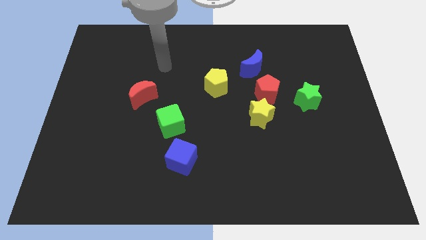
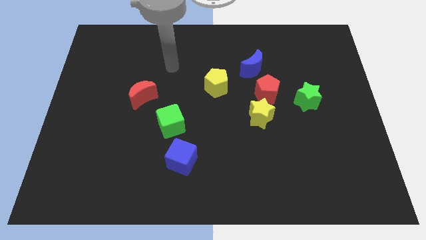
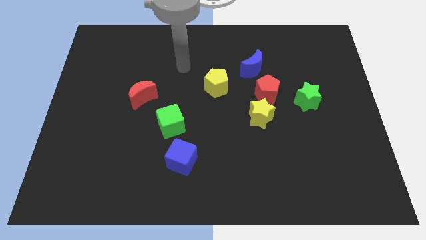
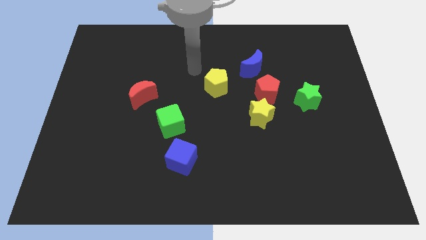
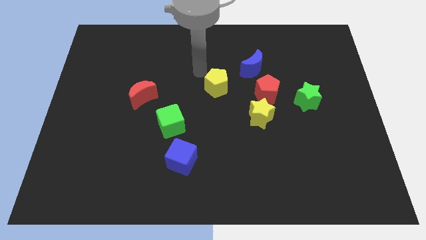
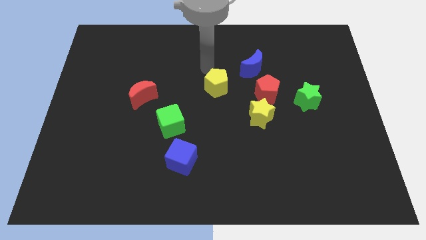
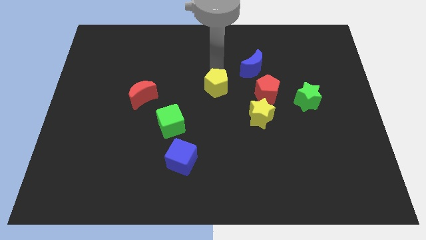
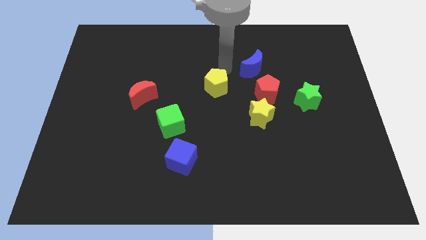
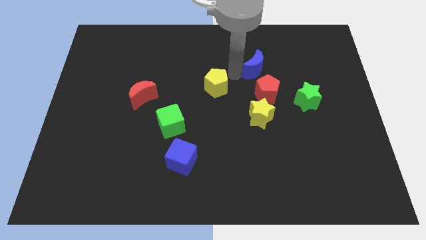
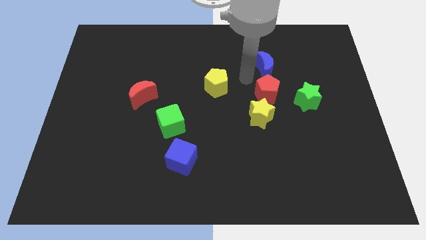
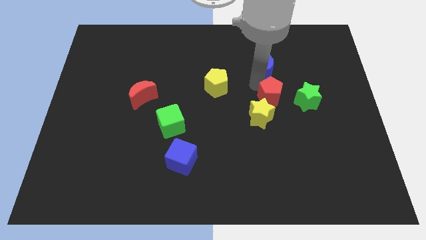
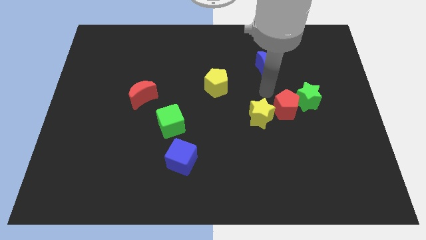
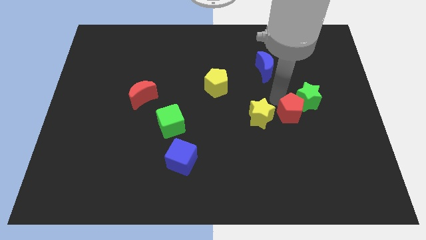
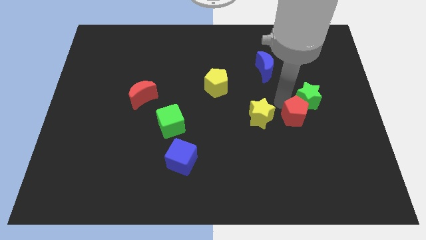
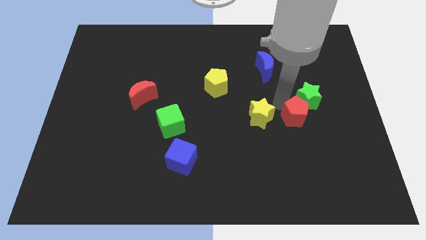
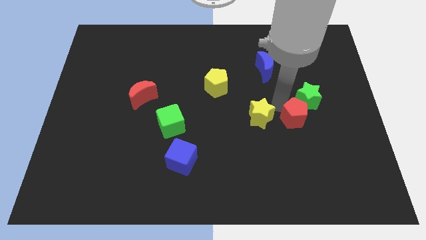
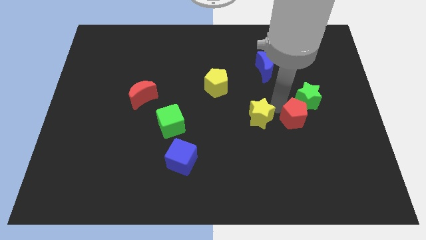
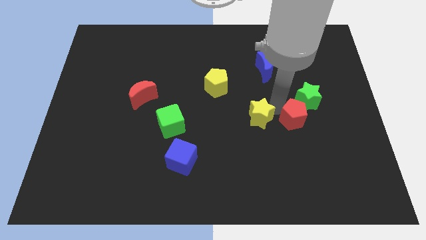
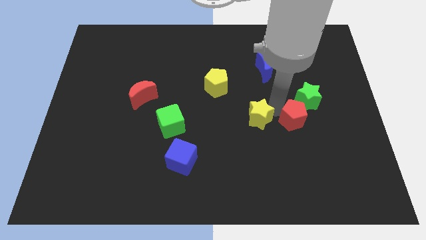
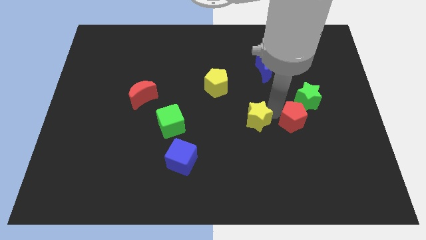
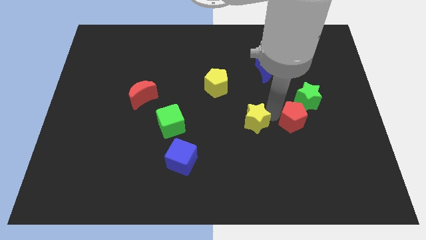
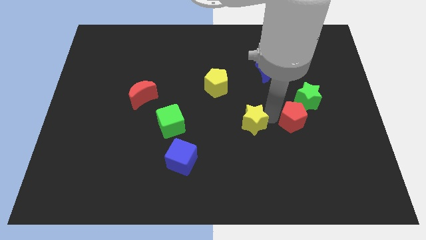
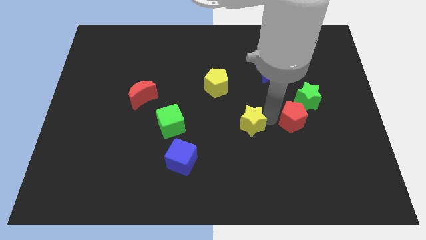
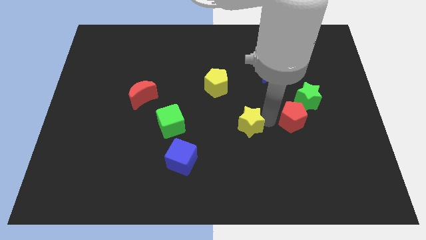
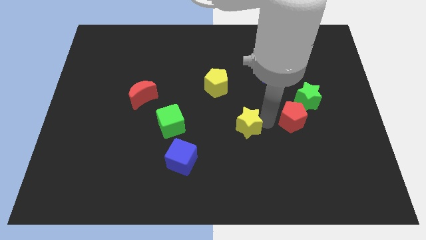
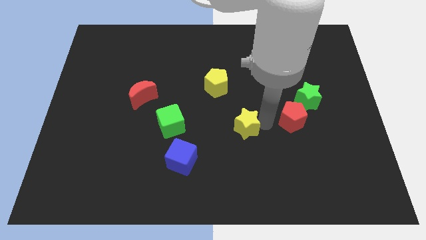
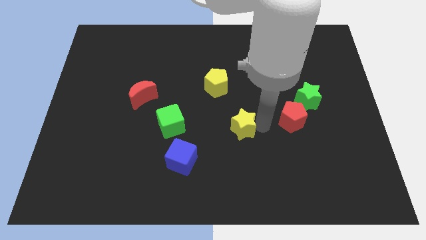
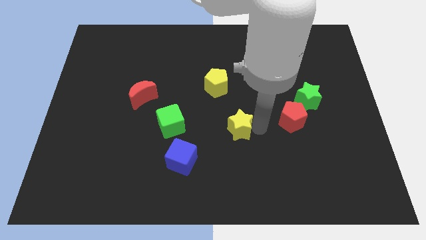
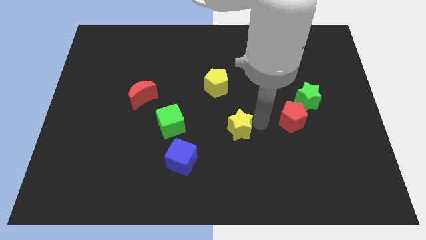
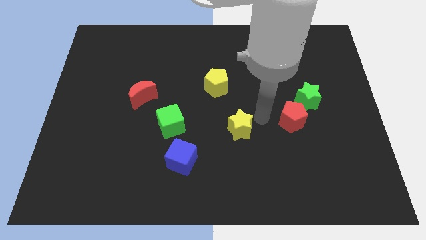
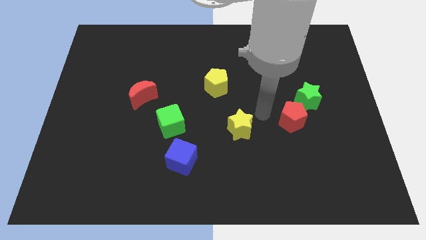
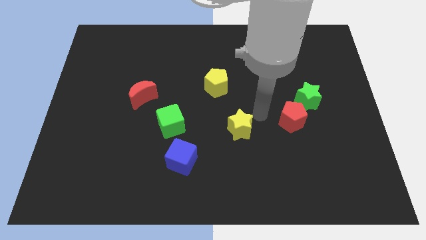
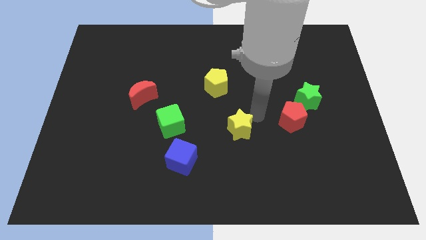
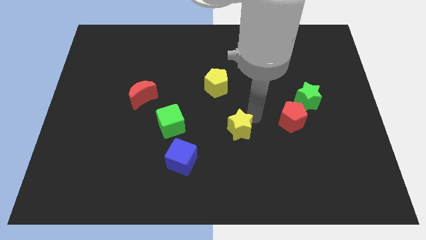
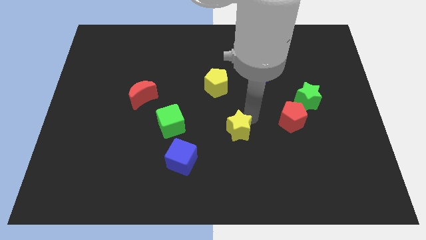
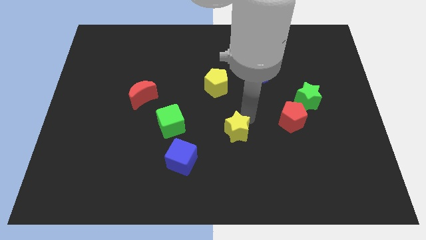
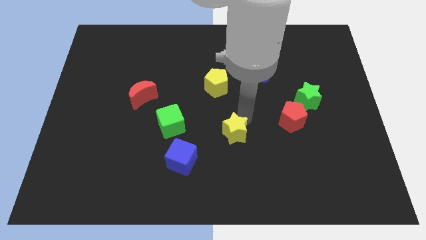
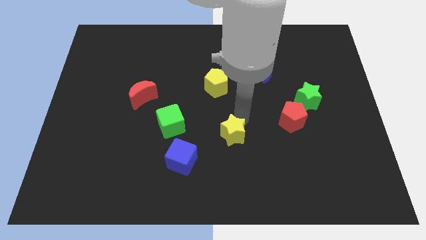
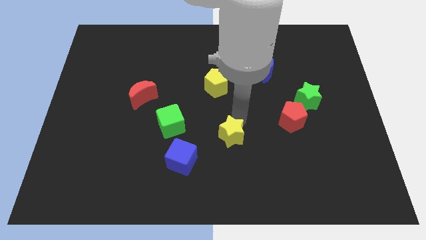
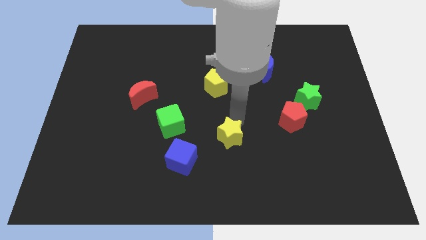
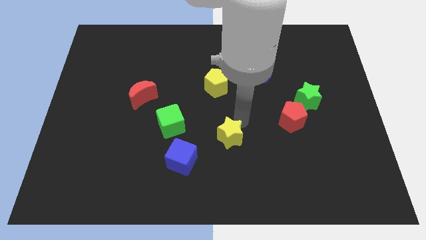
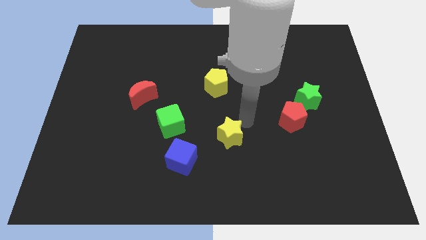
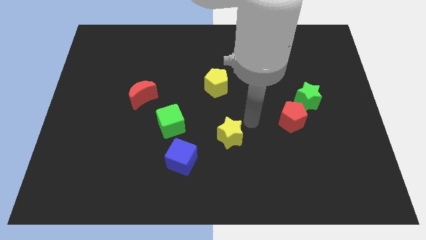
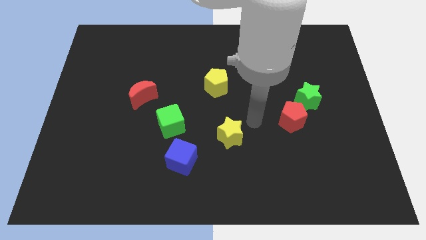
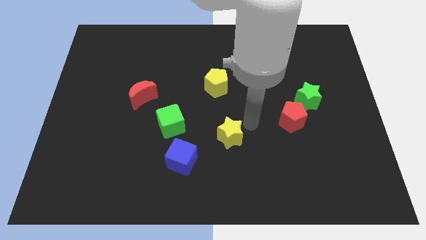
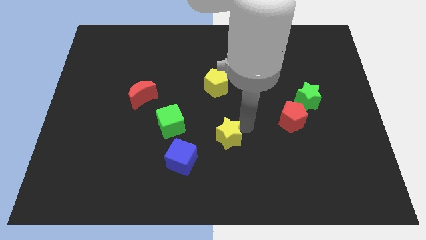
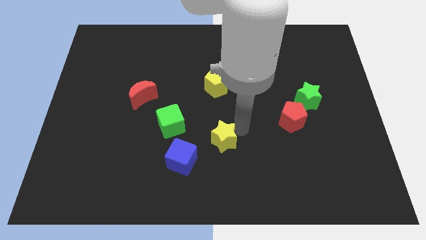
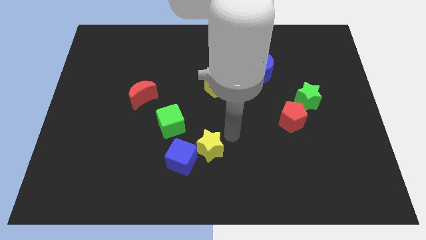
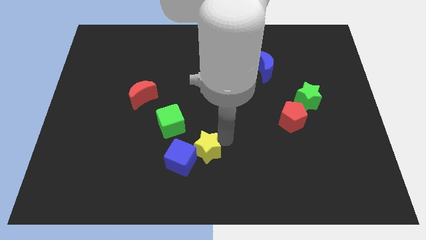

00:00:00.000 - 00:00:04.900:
put the yellow star close to the blue cube

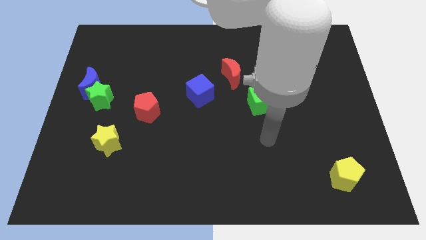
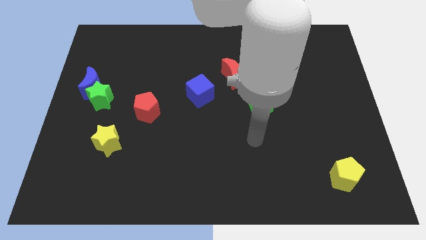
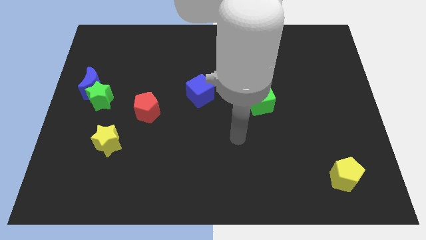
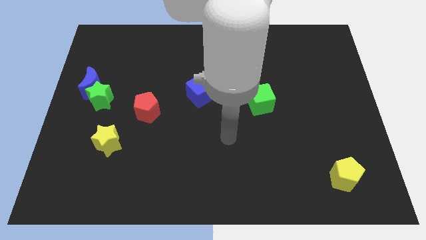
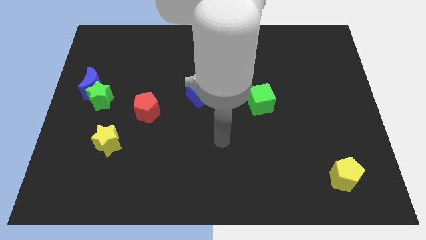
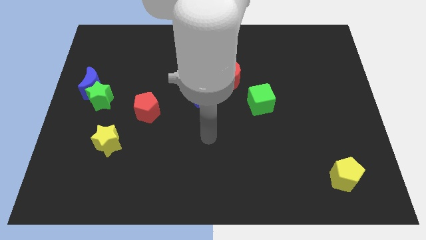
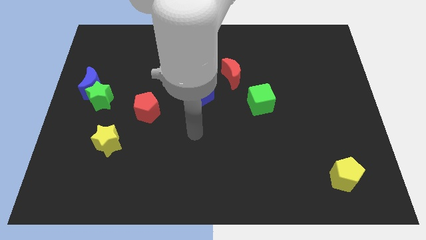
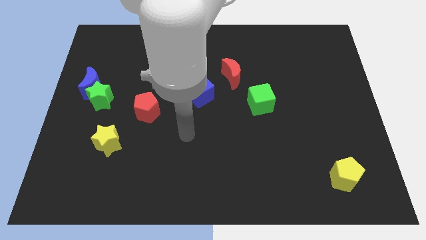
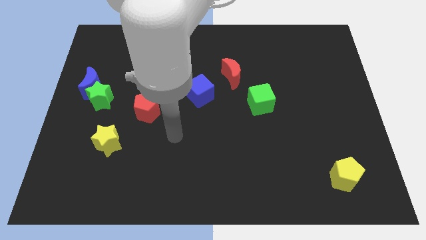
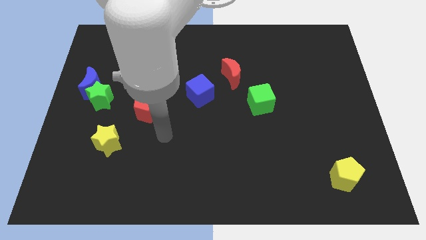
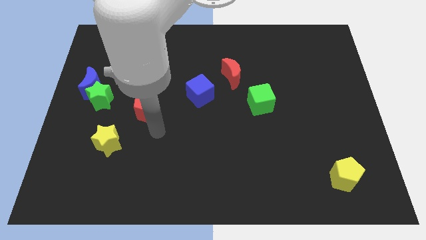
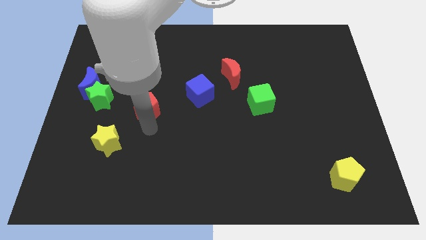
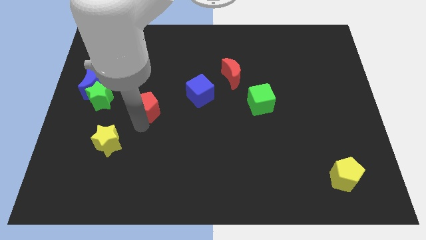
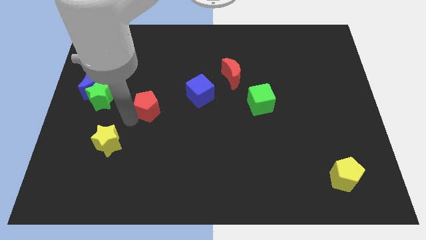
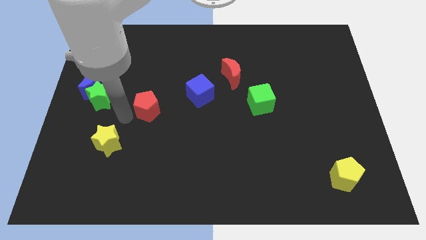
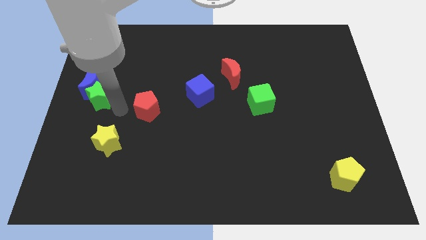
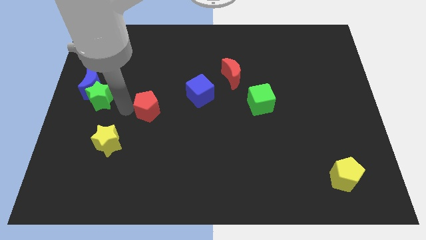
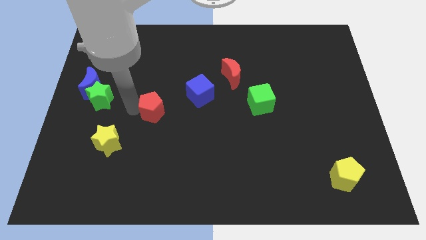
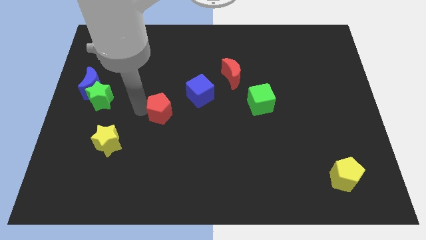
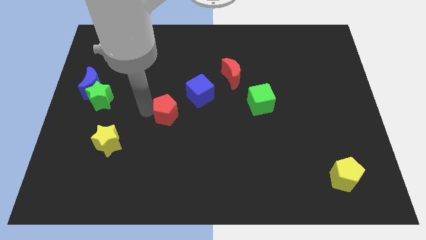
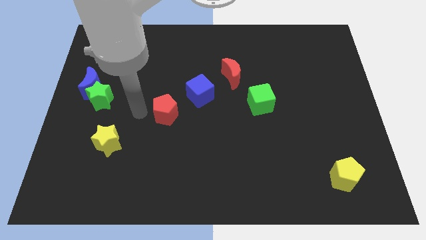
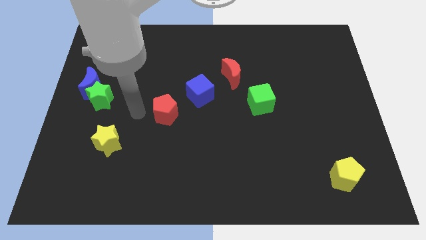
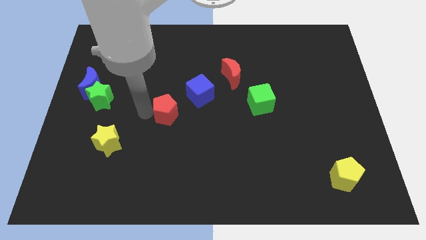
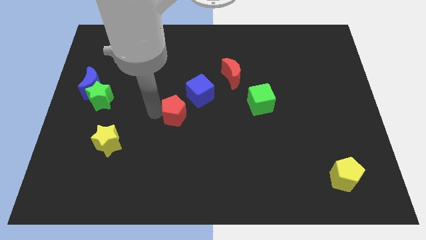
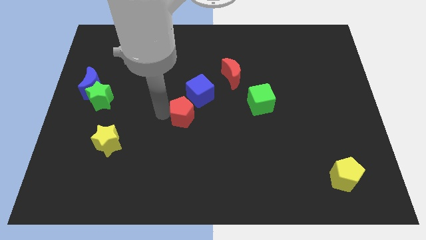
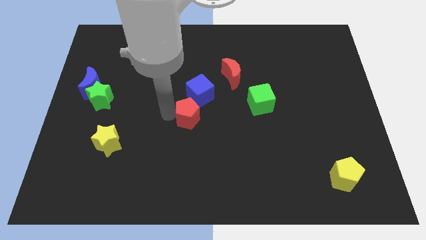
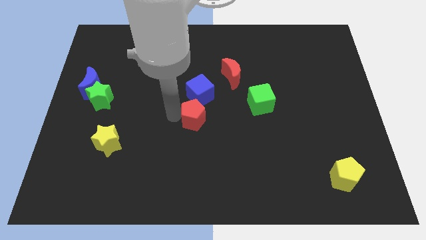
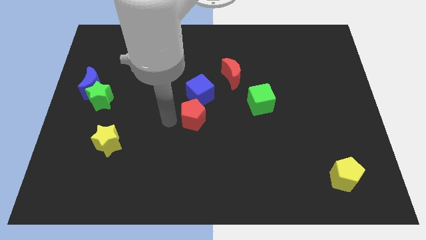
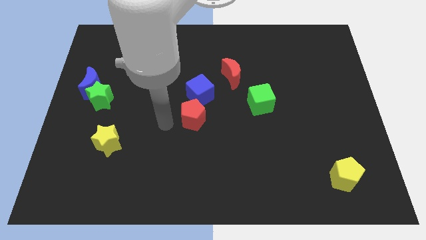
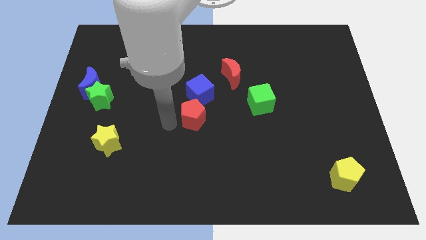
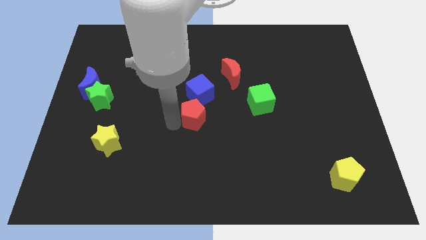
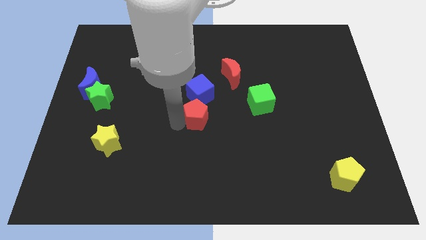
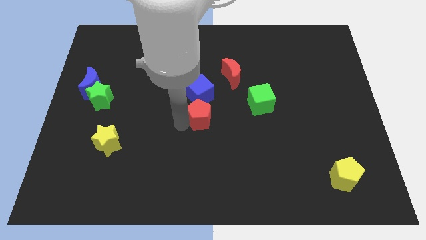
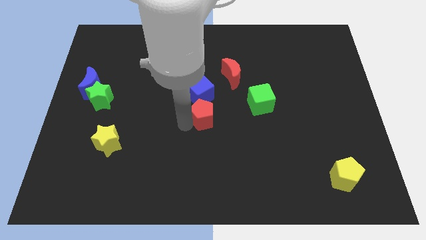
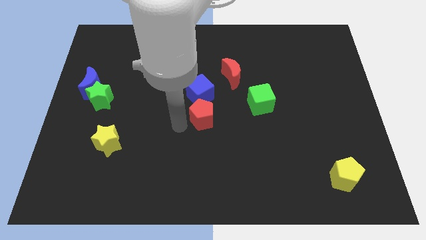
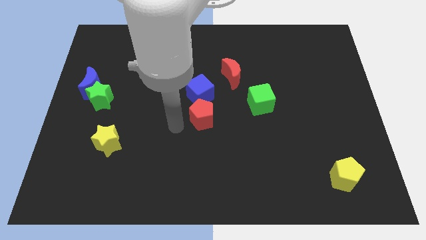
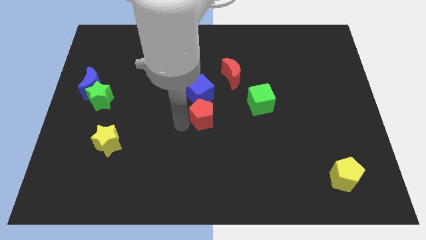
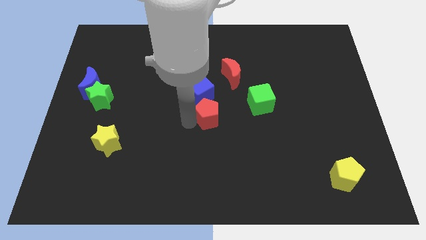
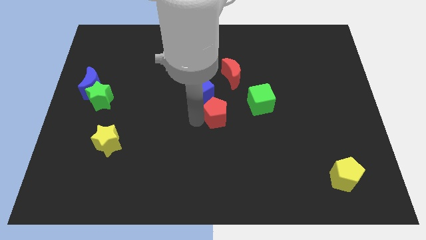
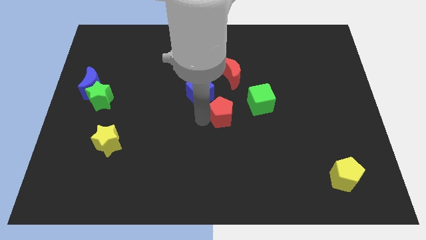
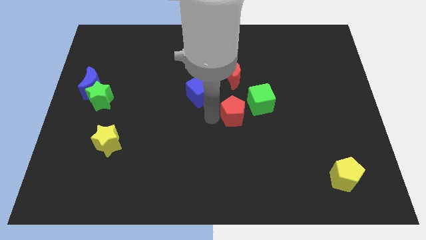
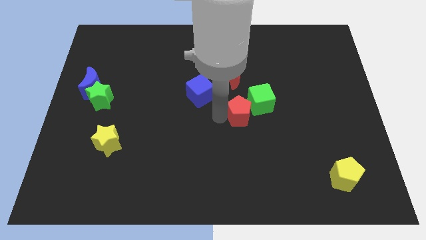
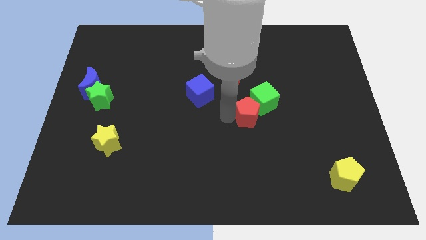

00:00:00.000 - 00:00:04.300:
move the red pentagon next to the green cube
